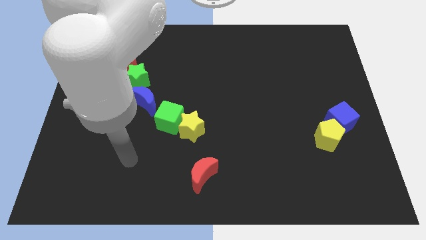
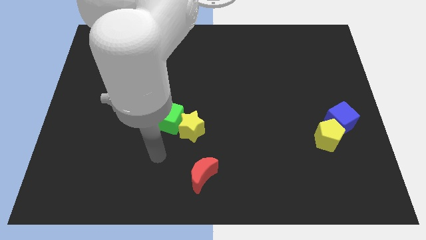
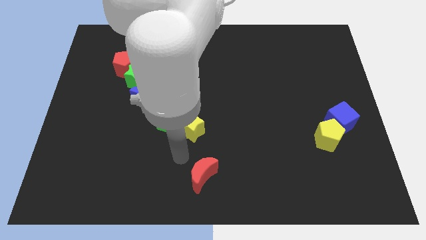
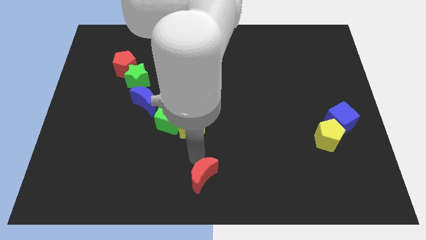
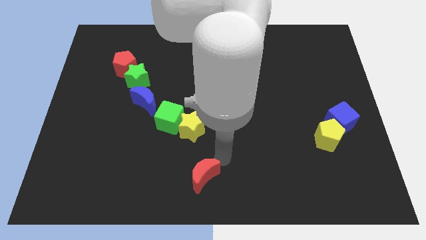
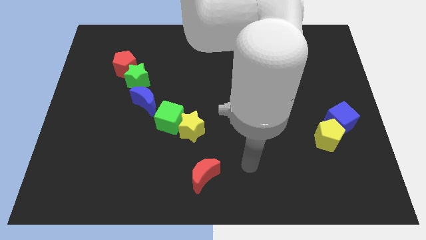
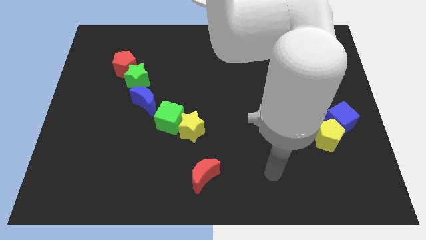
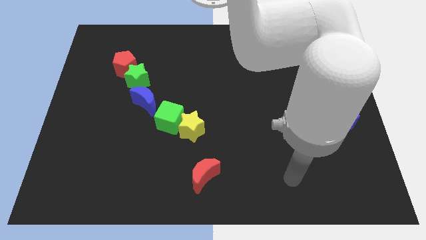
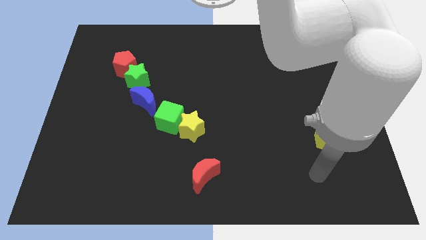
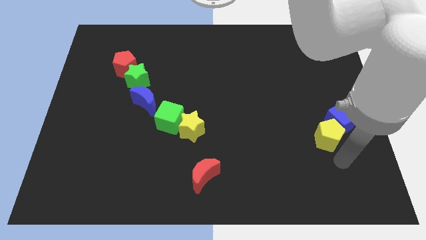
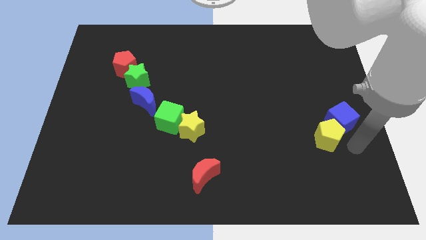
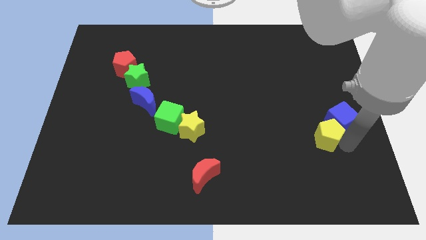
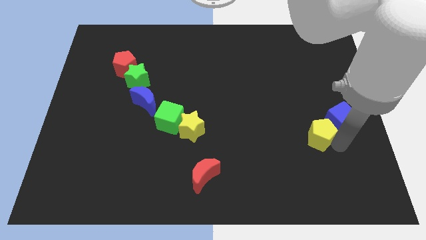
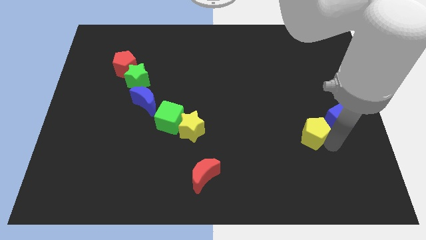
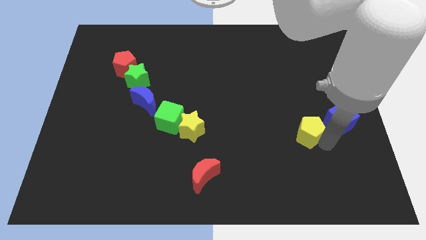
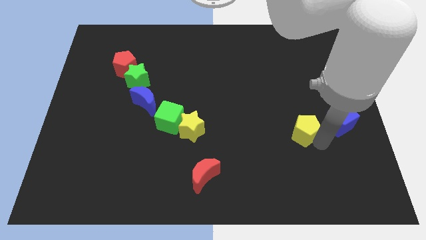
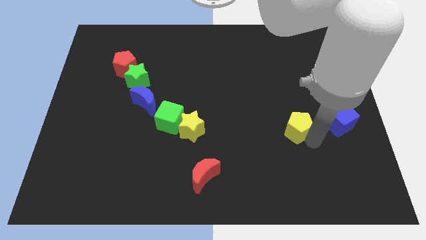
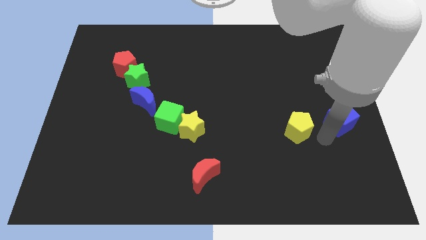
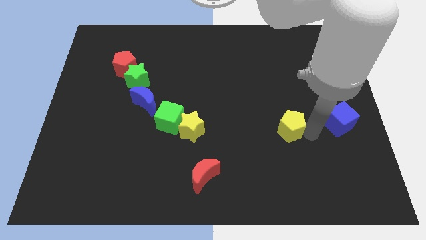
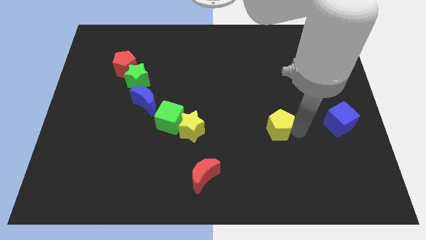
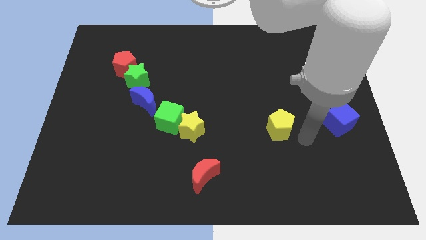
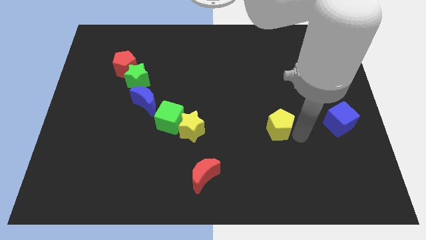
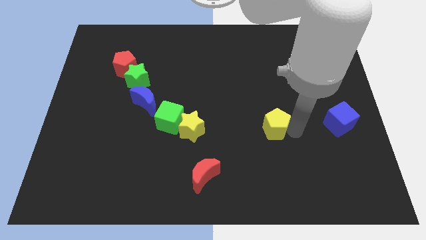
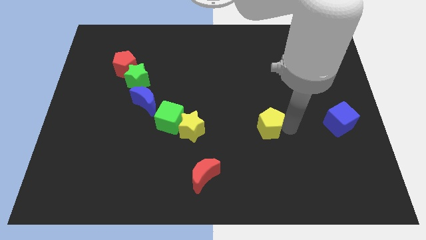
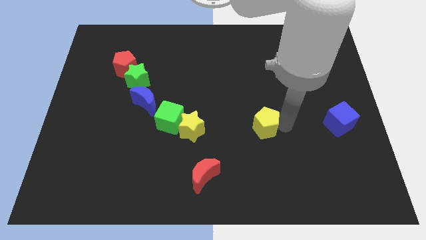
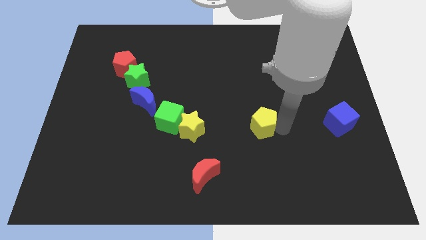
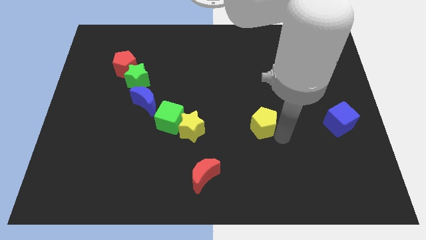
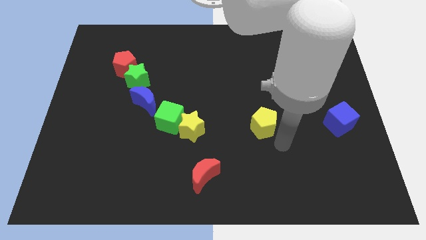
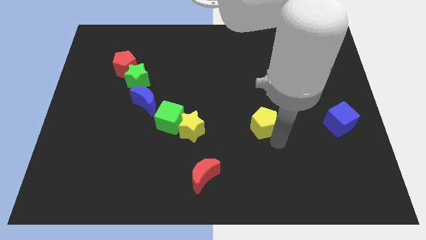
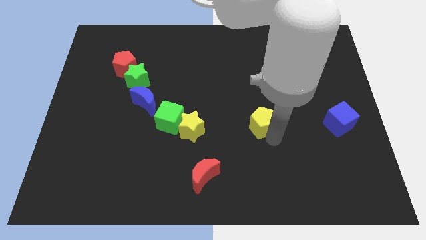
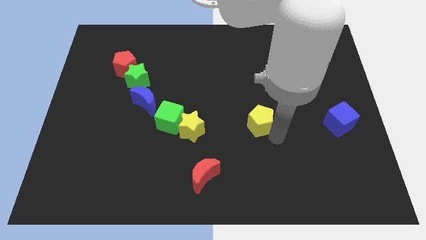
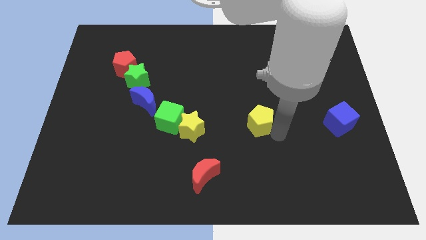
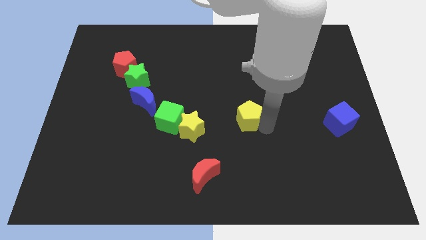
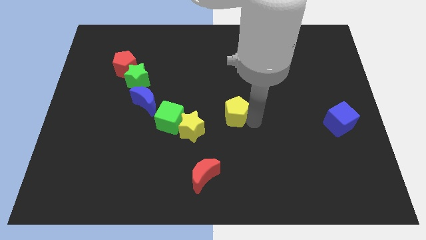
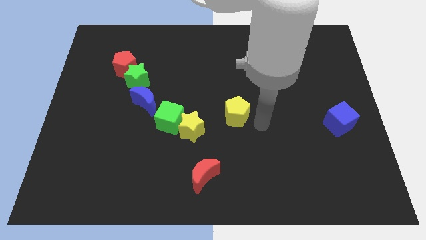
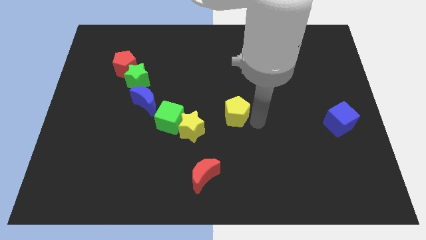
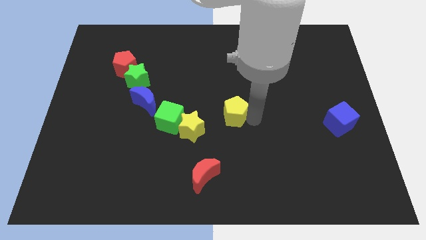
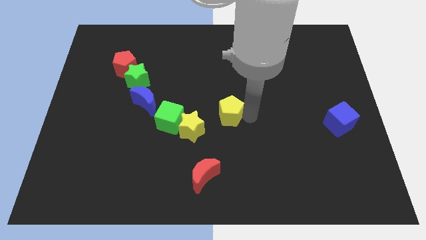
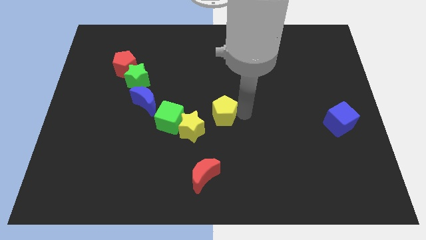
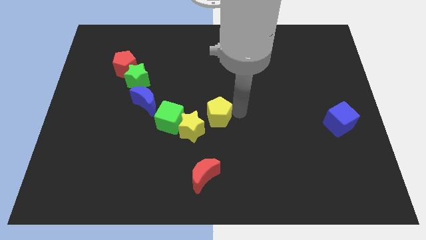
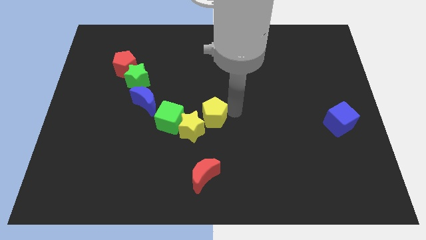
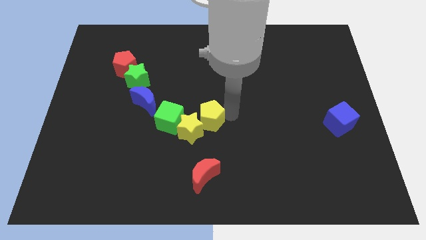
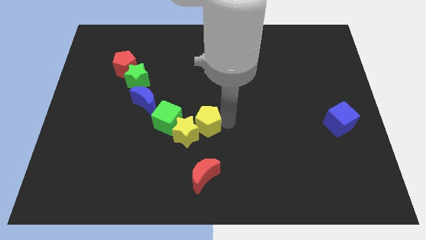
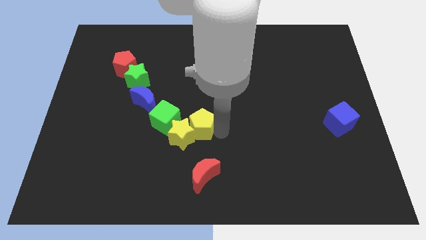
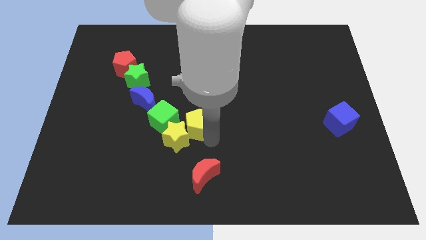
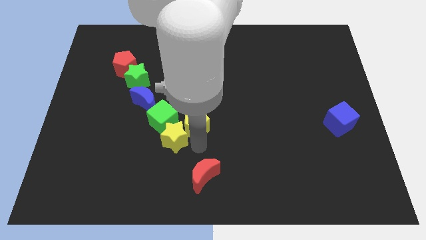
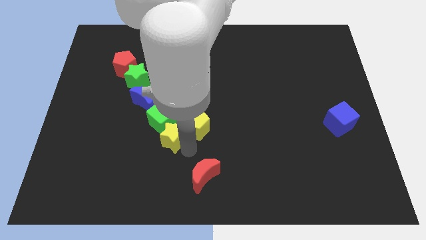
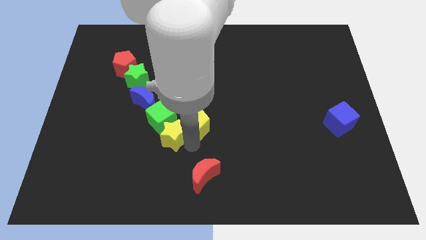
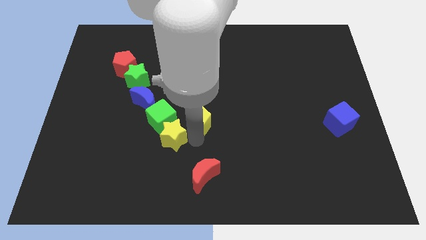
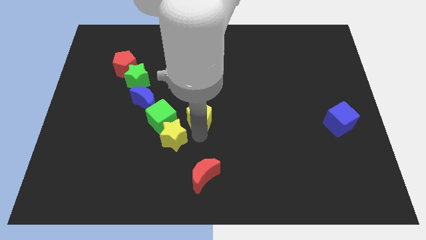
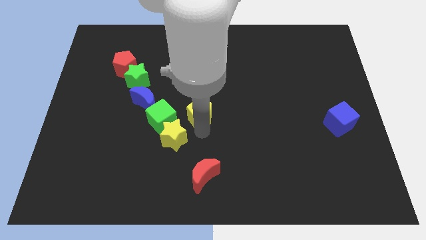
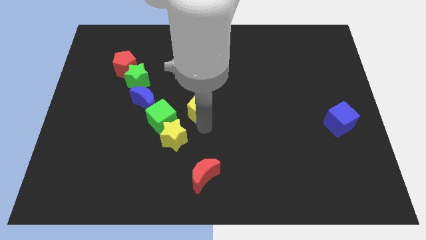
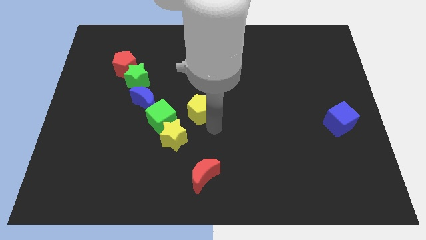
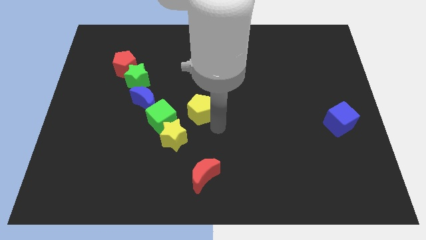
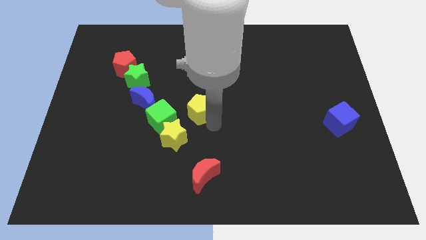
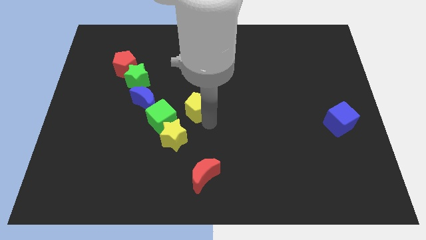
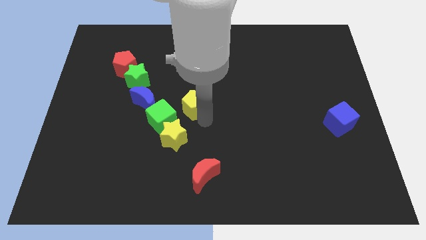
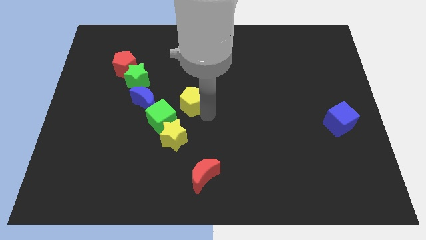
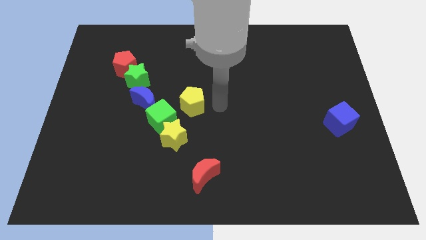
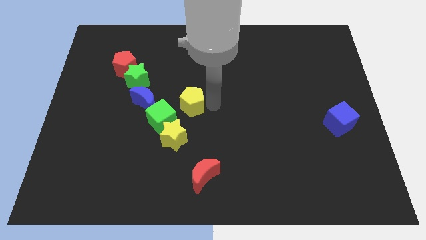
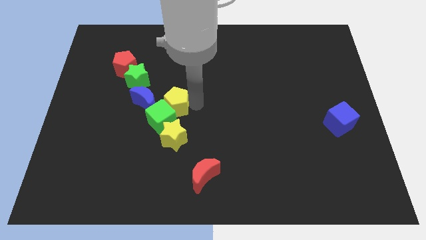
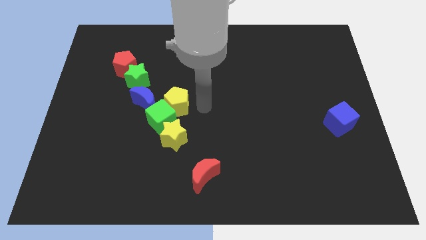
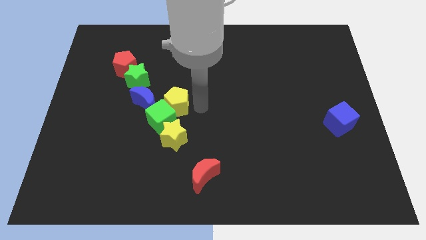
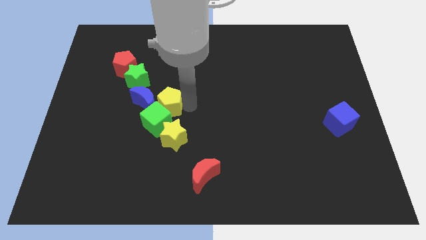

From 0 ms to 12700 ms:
push the yellow pentagon to the blue moon

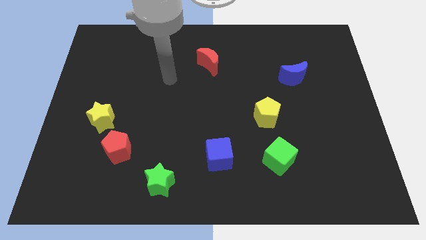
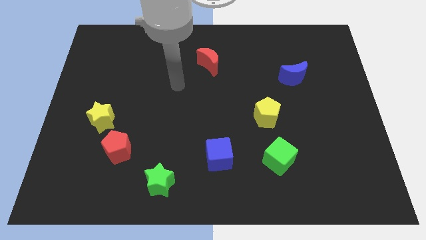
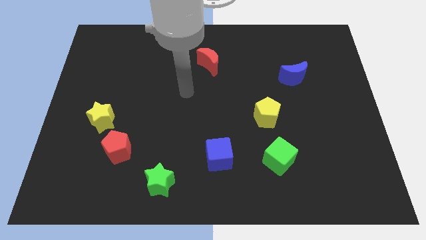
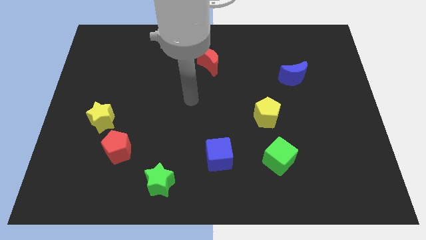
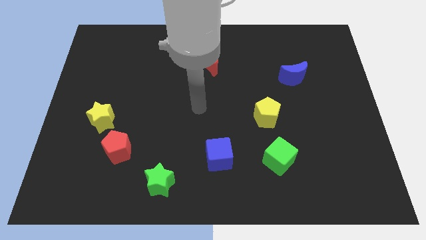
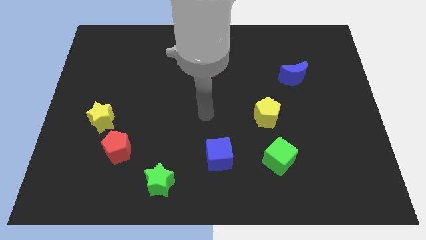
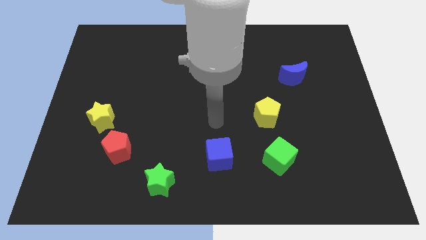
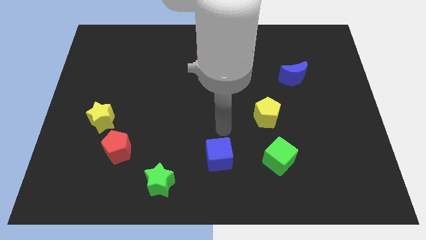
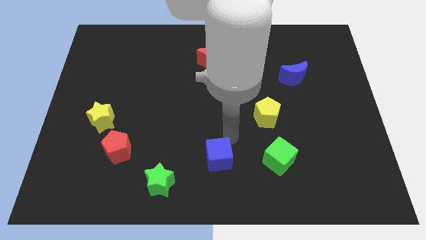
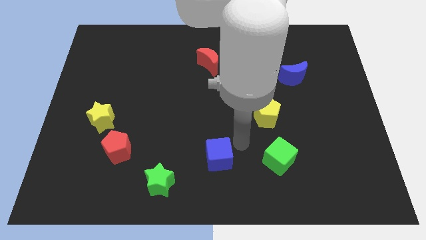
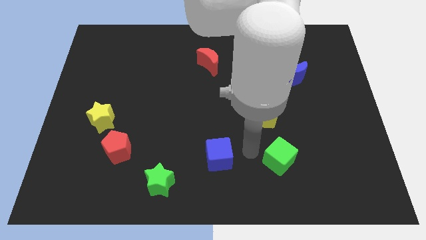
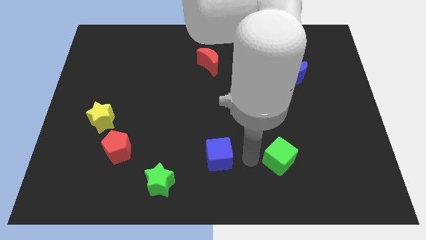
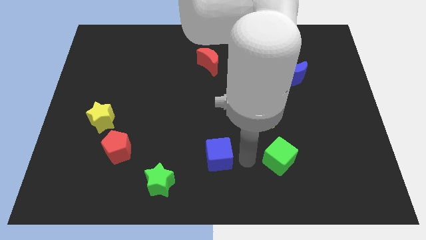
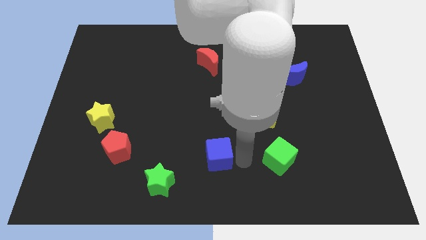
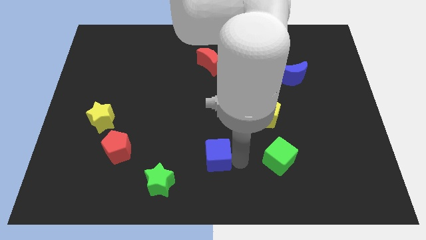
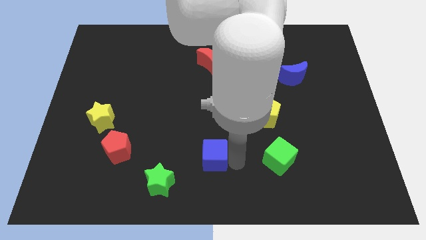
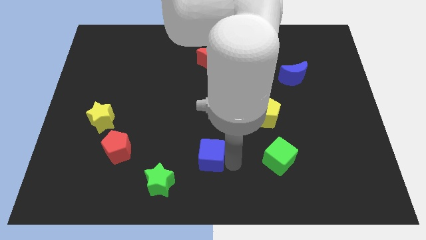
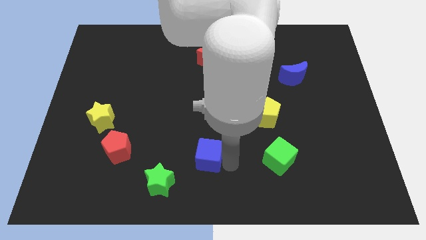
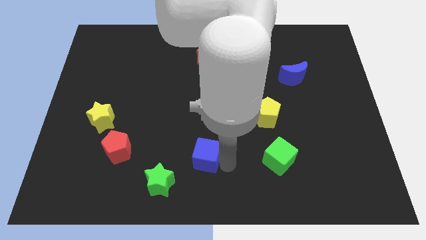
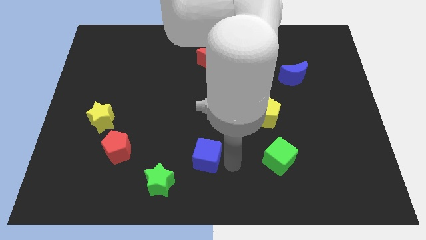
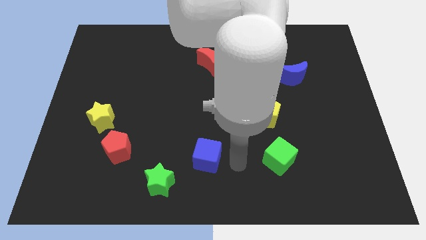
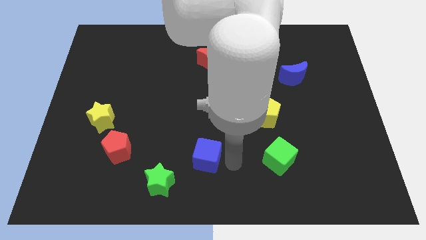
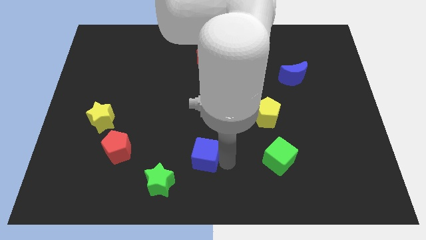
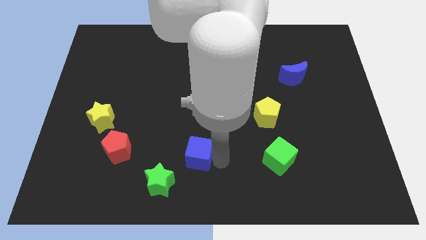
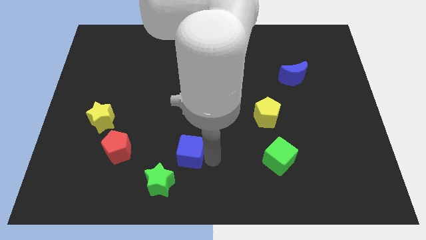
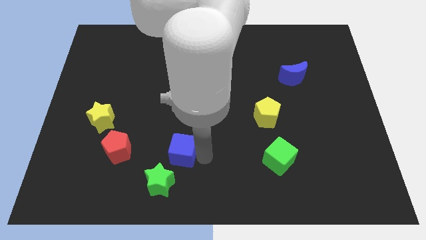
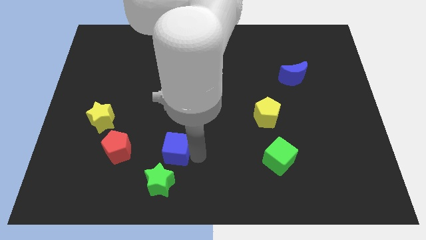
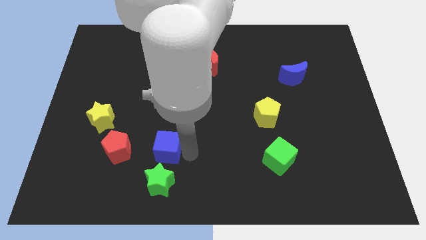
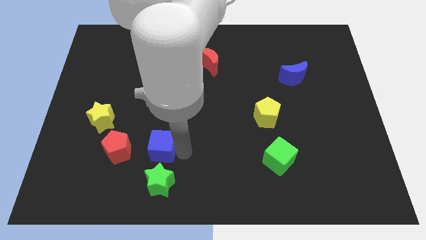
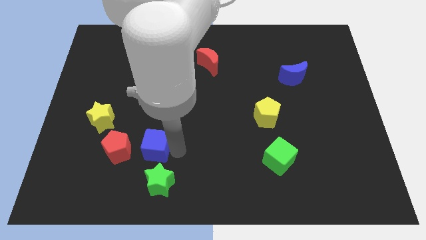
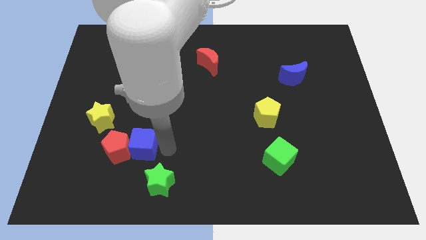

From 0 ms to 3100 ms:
slide the blue cube to the red pentagon
